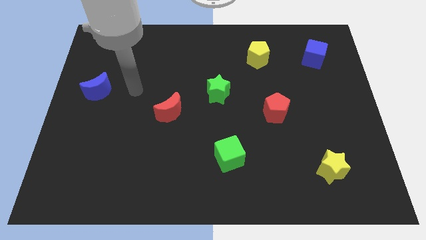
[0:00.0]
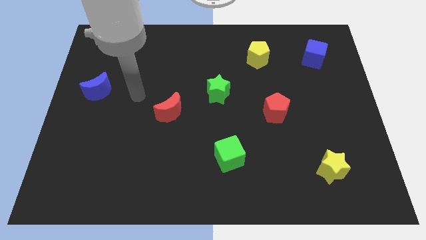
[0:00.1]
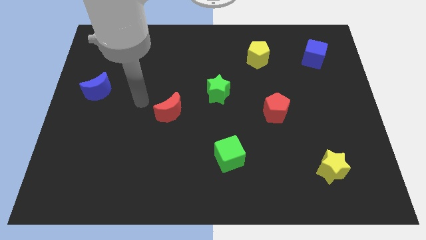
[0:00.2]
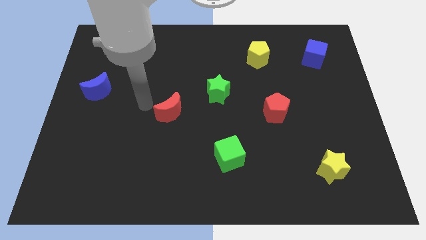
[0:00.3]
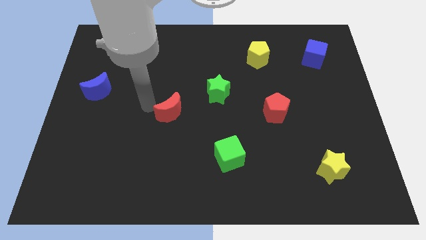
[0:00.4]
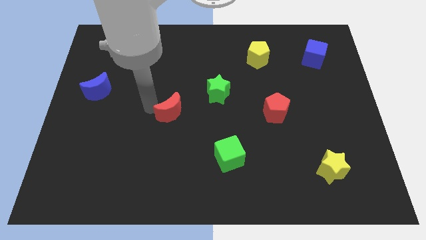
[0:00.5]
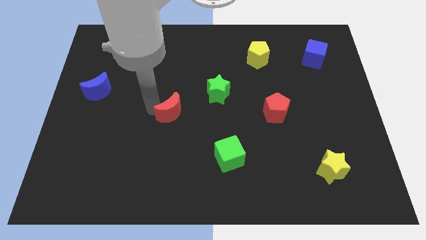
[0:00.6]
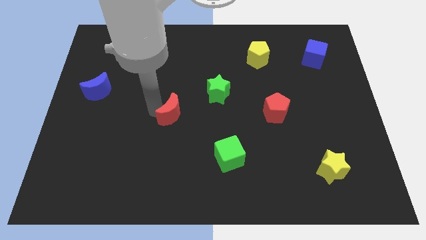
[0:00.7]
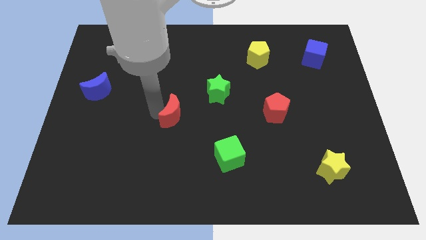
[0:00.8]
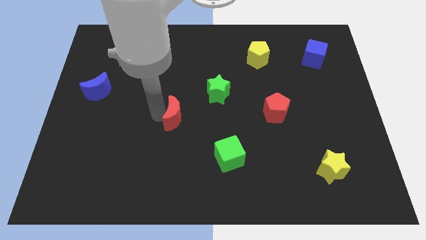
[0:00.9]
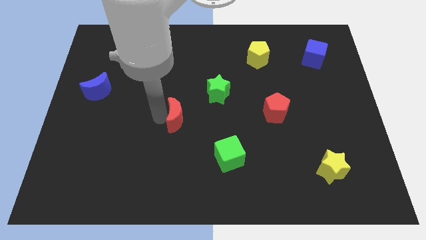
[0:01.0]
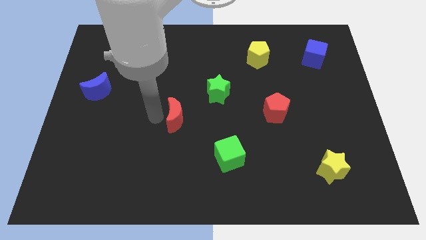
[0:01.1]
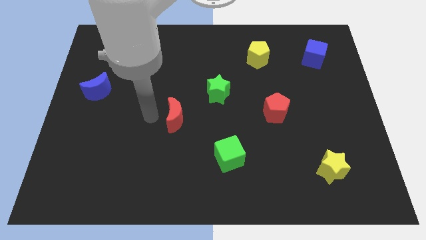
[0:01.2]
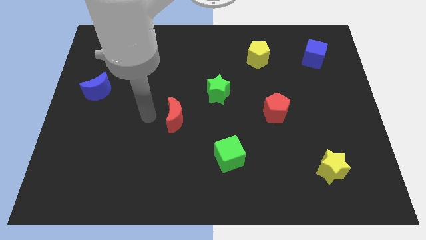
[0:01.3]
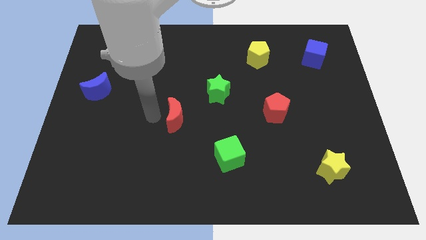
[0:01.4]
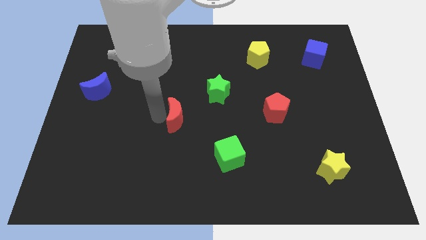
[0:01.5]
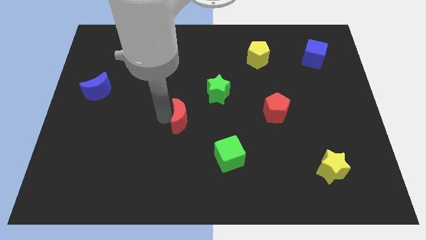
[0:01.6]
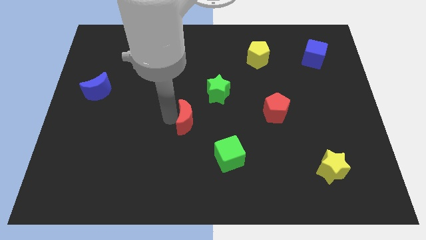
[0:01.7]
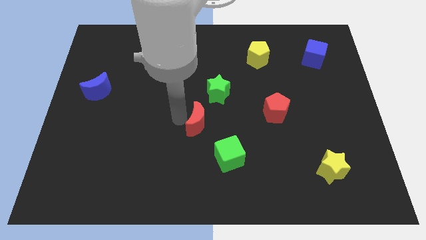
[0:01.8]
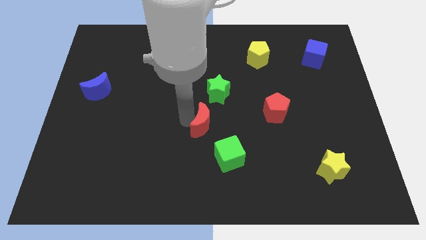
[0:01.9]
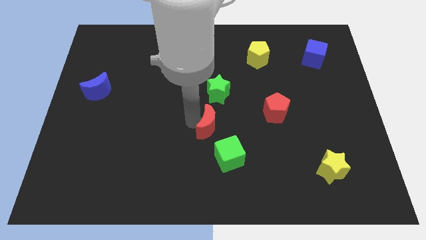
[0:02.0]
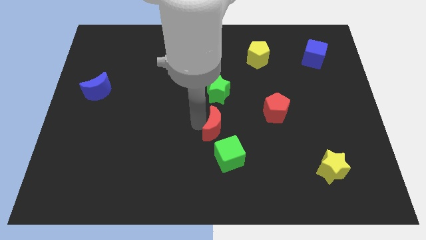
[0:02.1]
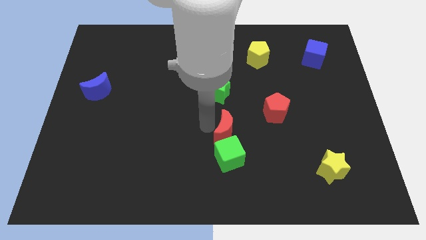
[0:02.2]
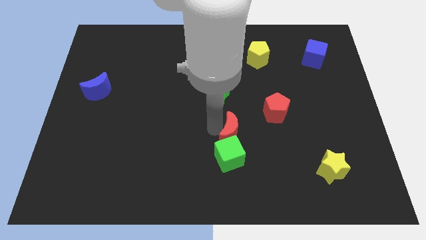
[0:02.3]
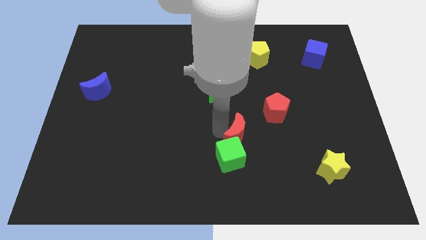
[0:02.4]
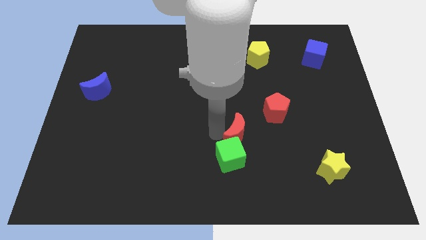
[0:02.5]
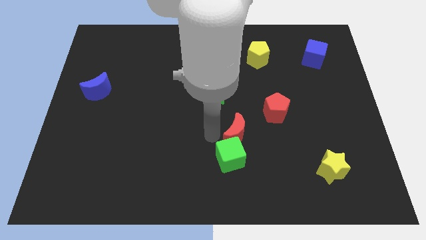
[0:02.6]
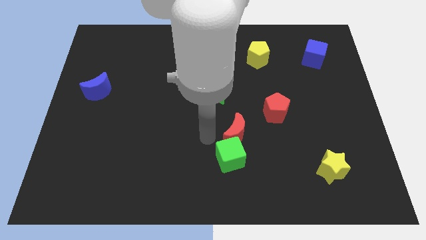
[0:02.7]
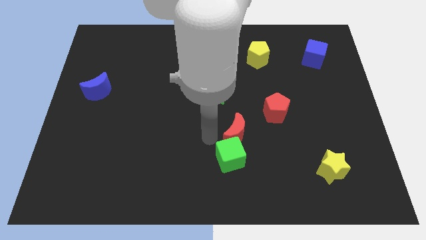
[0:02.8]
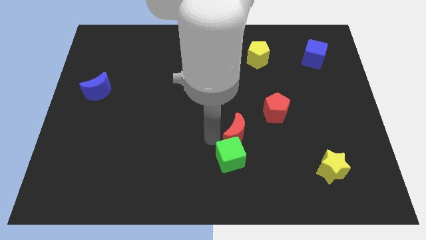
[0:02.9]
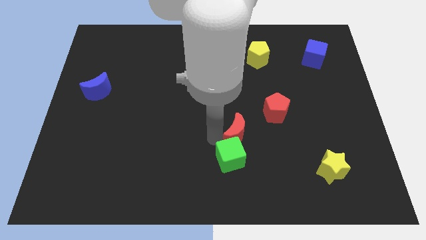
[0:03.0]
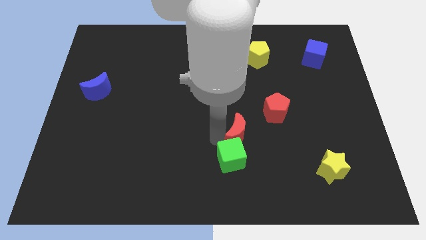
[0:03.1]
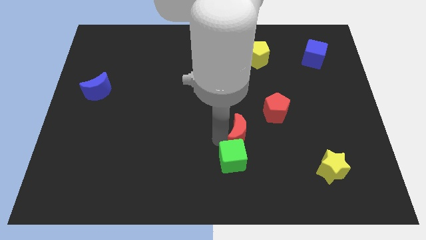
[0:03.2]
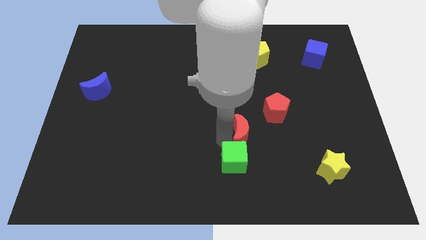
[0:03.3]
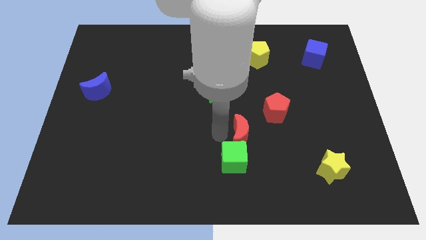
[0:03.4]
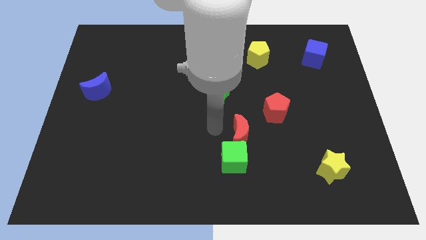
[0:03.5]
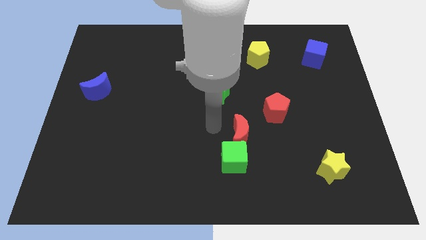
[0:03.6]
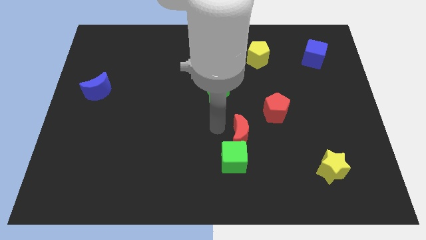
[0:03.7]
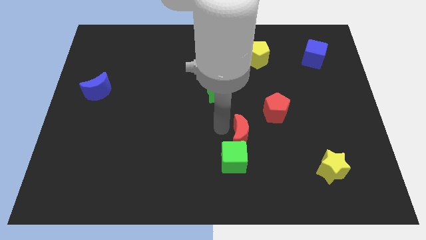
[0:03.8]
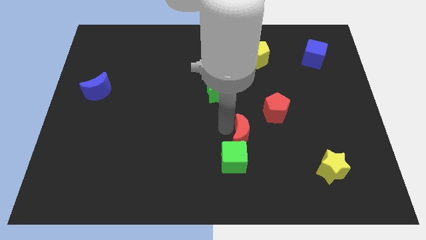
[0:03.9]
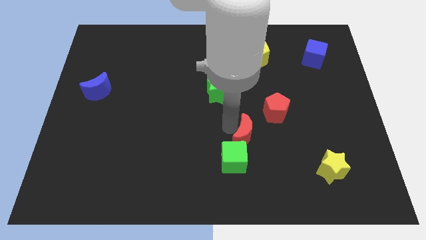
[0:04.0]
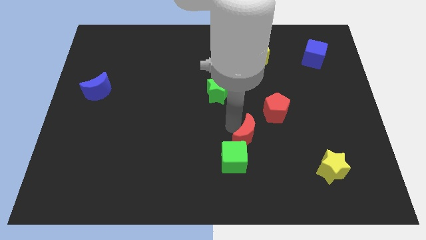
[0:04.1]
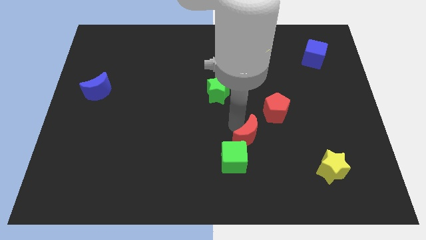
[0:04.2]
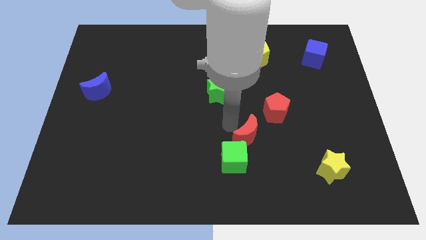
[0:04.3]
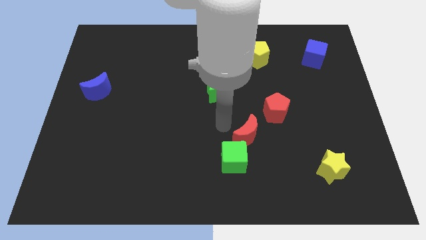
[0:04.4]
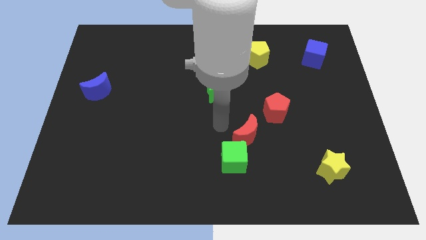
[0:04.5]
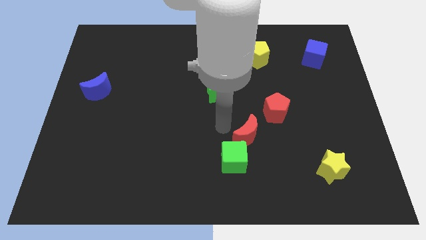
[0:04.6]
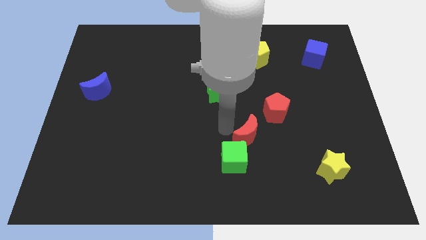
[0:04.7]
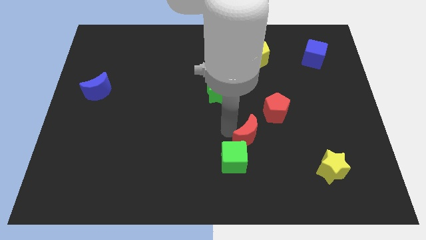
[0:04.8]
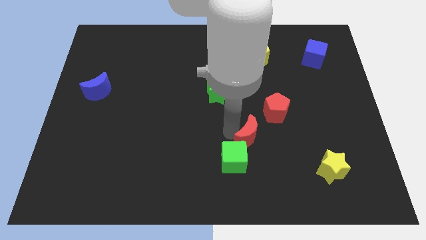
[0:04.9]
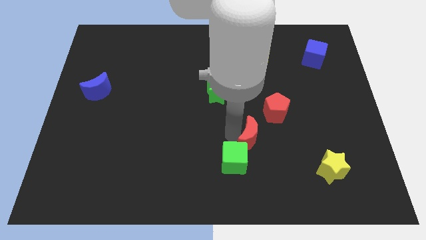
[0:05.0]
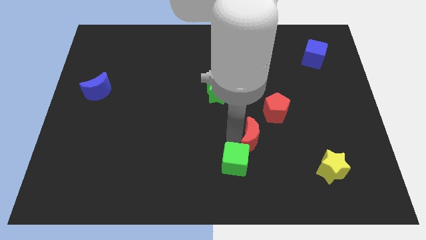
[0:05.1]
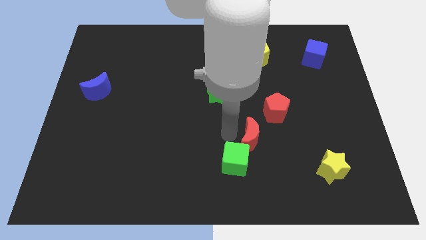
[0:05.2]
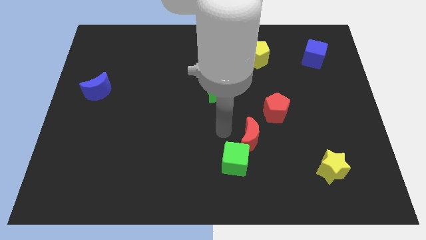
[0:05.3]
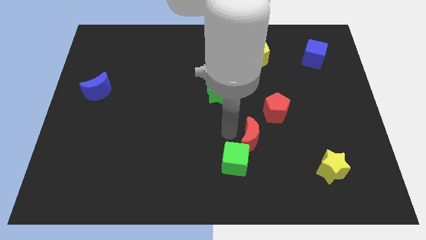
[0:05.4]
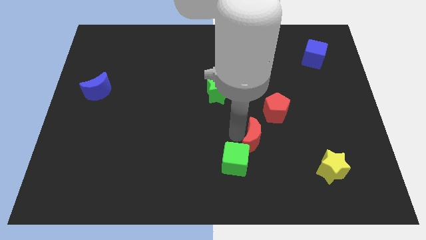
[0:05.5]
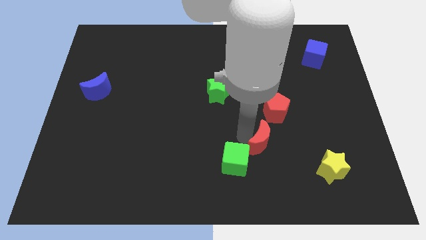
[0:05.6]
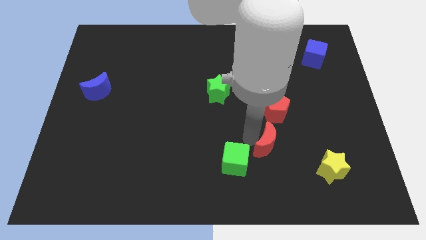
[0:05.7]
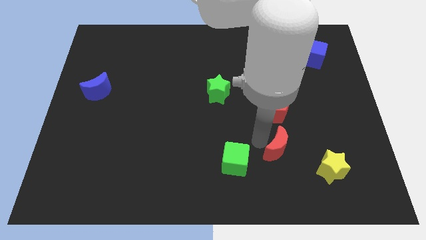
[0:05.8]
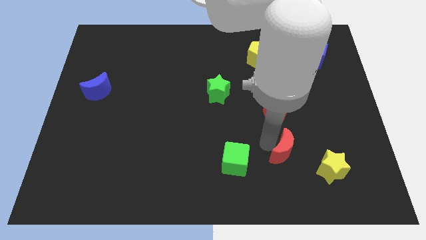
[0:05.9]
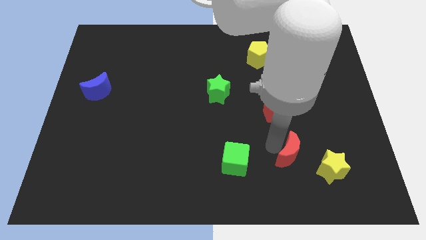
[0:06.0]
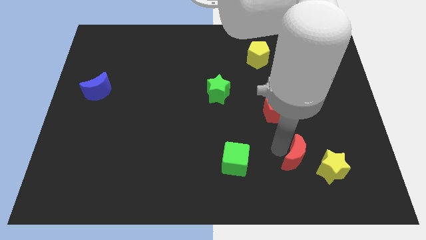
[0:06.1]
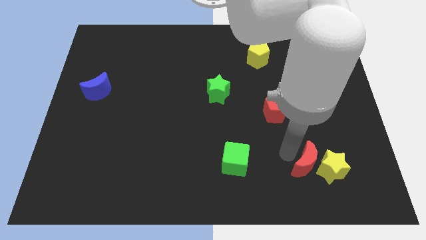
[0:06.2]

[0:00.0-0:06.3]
slide the red moon next to the yellow star

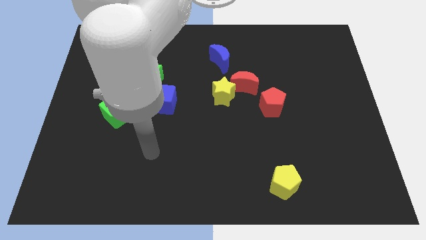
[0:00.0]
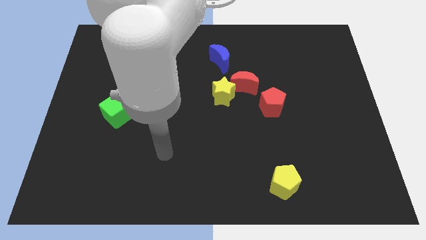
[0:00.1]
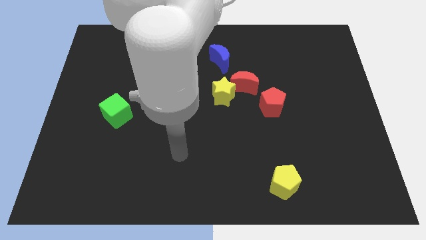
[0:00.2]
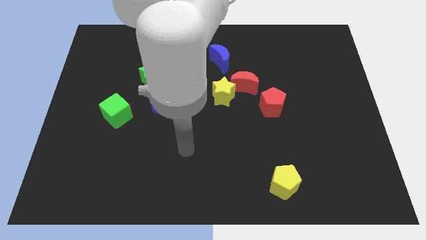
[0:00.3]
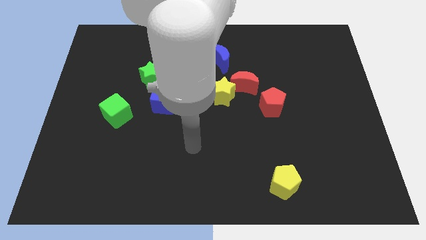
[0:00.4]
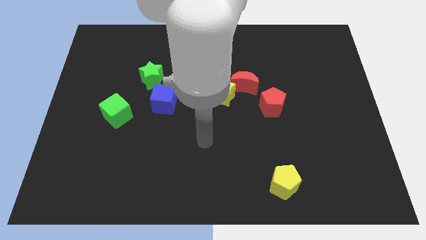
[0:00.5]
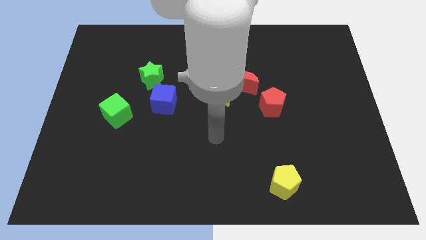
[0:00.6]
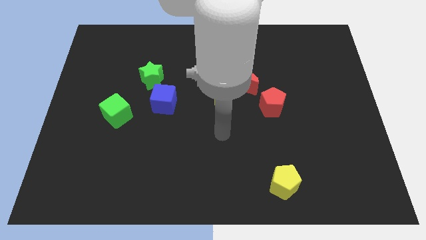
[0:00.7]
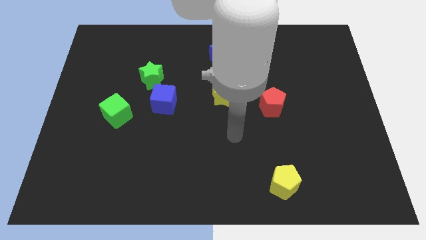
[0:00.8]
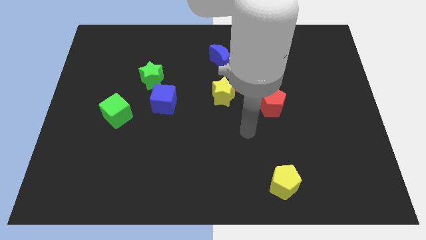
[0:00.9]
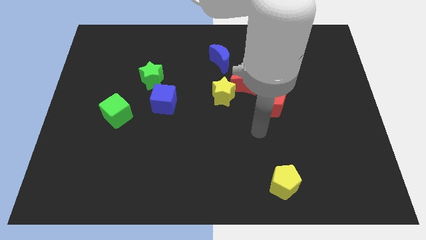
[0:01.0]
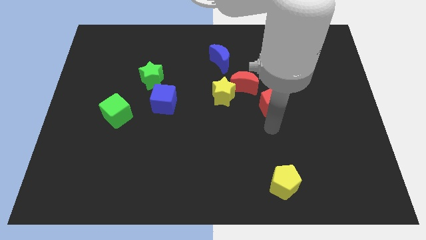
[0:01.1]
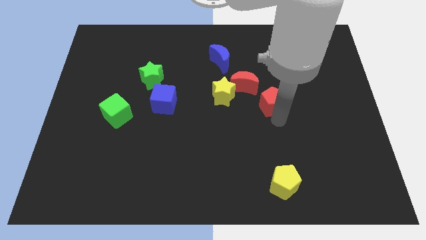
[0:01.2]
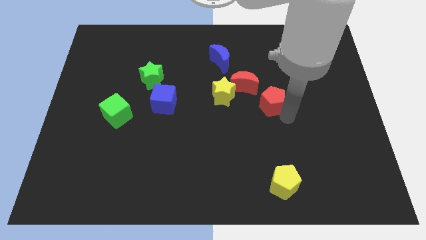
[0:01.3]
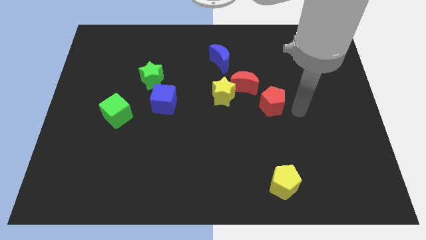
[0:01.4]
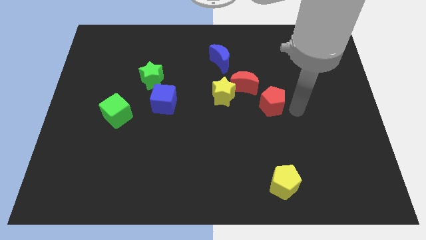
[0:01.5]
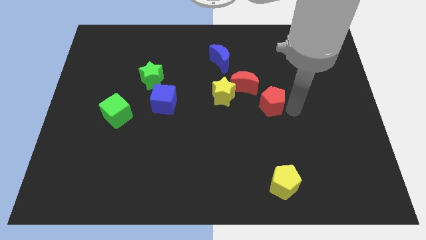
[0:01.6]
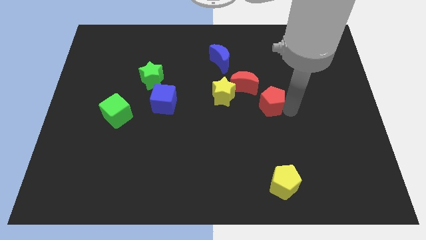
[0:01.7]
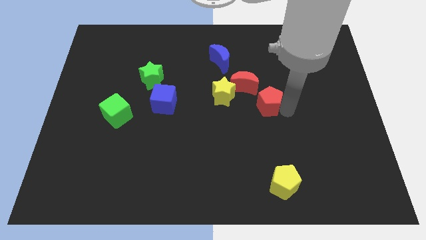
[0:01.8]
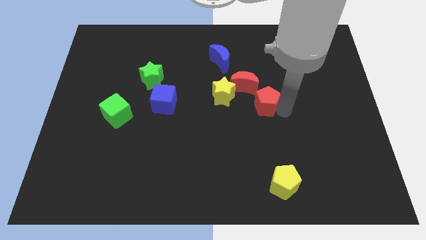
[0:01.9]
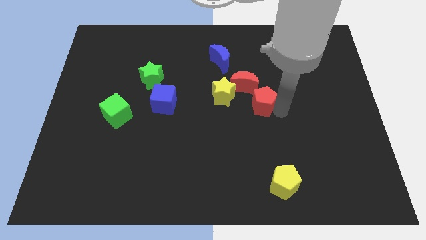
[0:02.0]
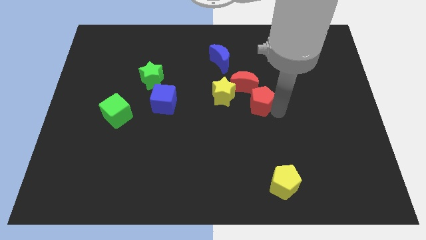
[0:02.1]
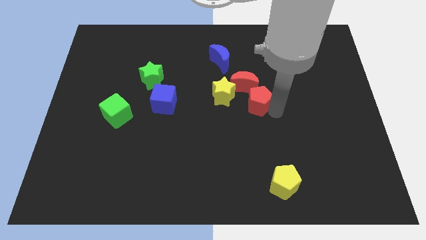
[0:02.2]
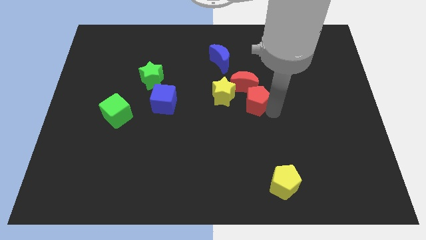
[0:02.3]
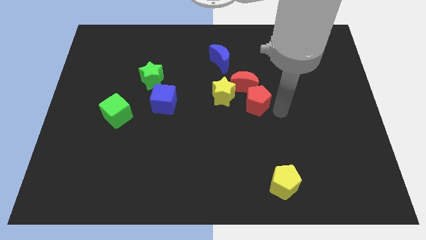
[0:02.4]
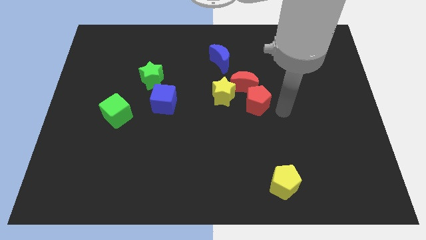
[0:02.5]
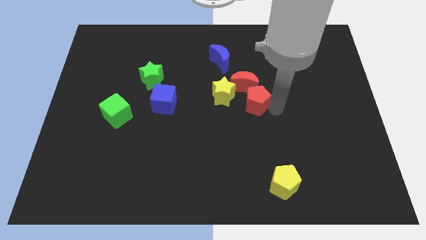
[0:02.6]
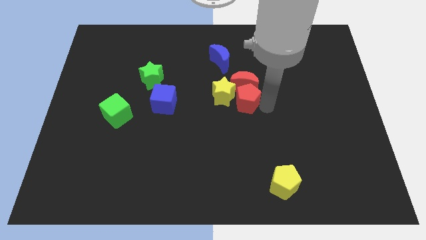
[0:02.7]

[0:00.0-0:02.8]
put the red pentagon to the yellow star
